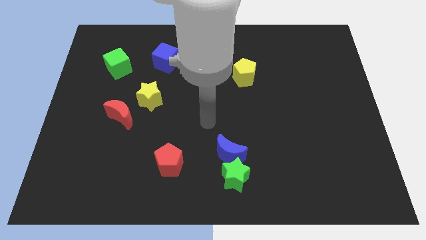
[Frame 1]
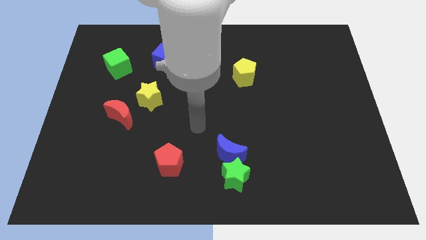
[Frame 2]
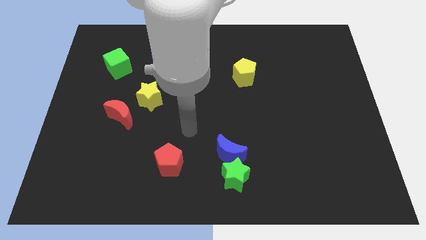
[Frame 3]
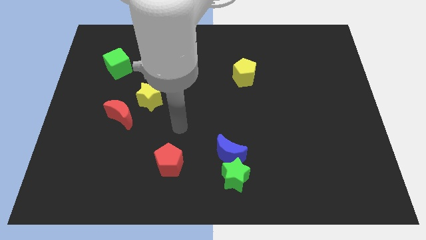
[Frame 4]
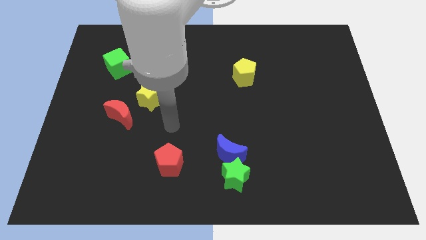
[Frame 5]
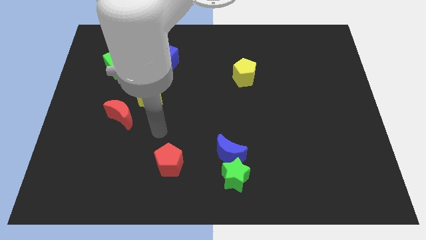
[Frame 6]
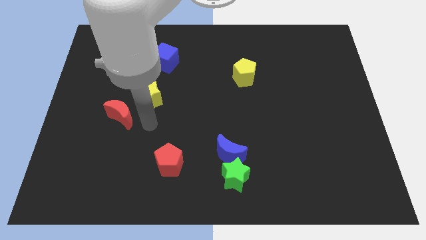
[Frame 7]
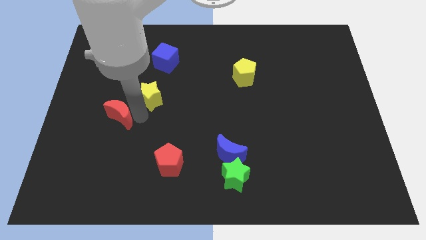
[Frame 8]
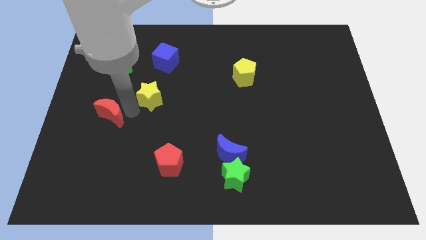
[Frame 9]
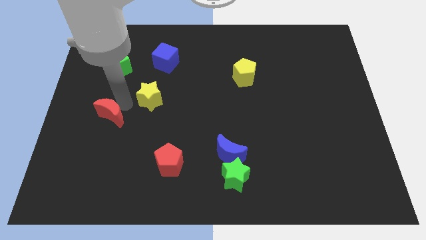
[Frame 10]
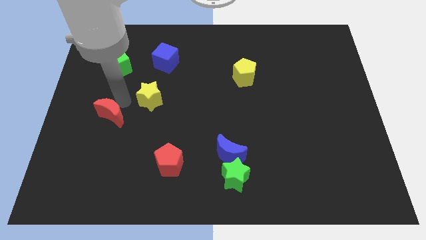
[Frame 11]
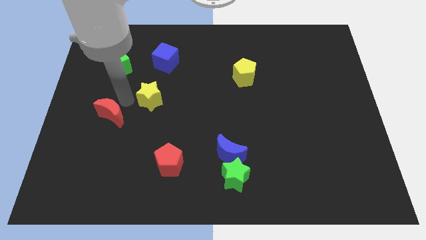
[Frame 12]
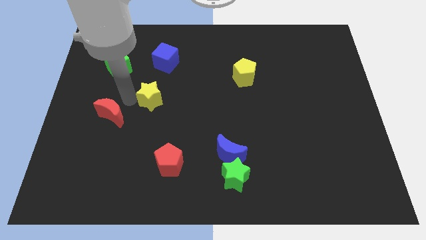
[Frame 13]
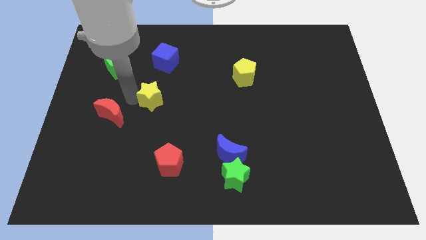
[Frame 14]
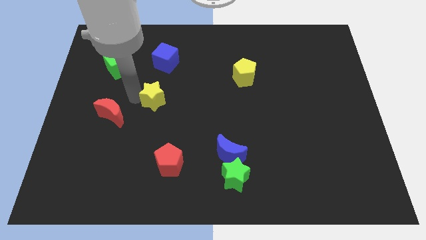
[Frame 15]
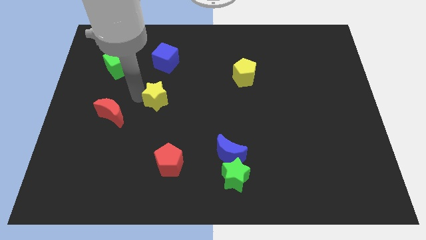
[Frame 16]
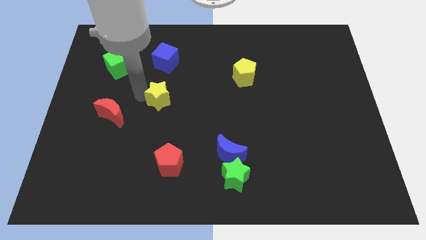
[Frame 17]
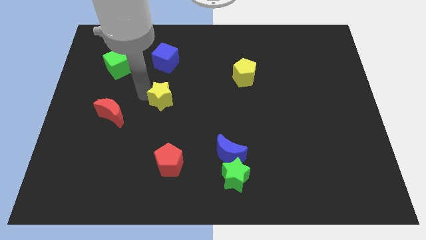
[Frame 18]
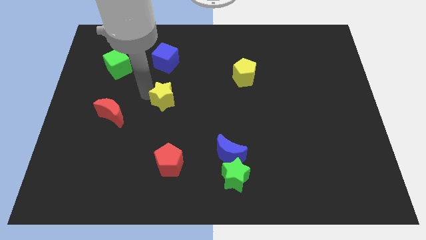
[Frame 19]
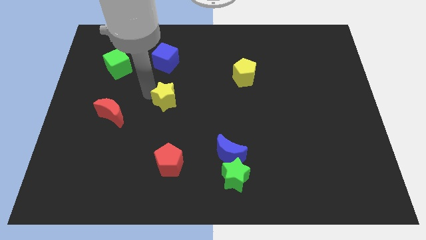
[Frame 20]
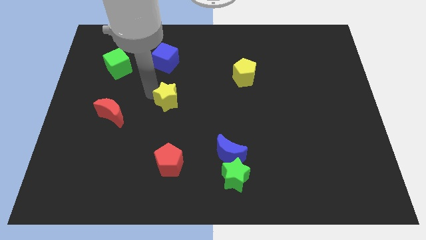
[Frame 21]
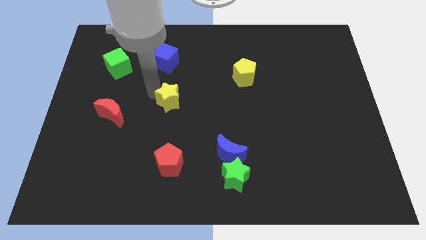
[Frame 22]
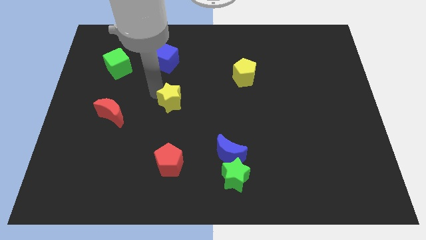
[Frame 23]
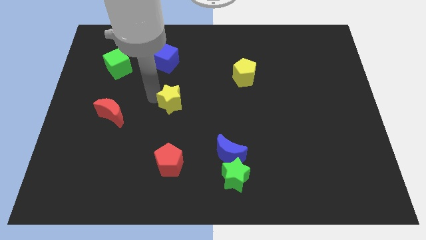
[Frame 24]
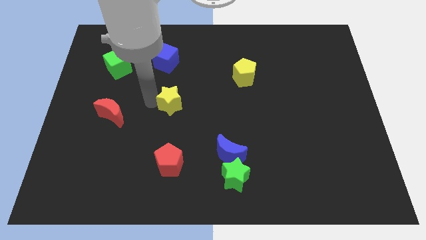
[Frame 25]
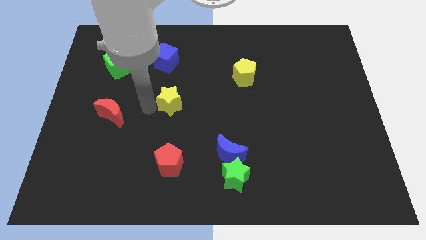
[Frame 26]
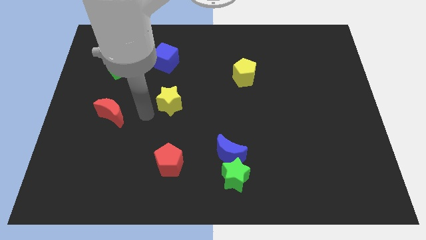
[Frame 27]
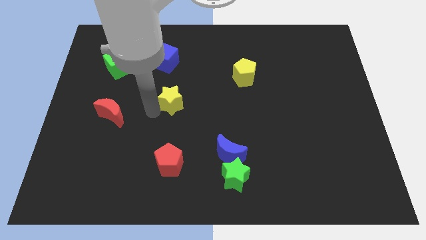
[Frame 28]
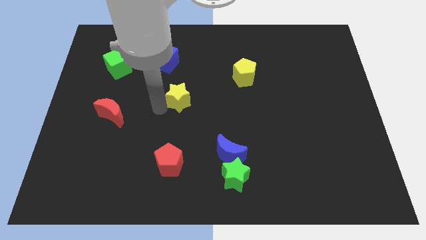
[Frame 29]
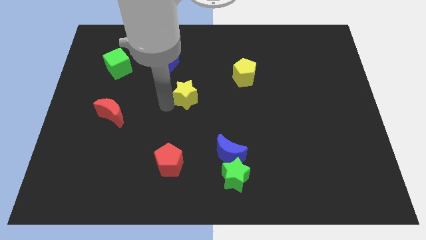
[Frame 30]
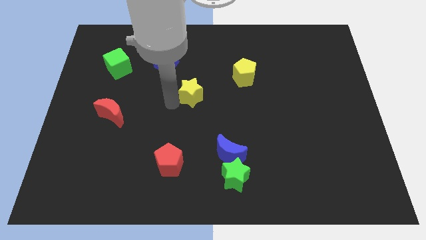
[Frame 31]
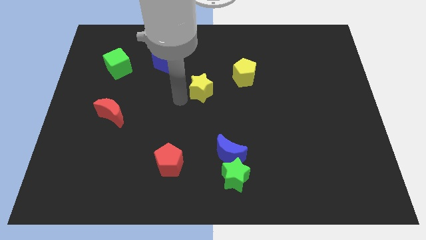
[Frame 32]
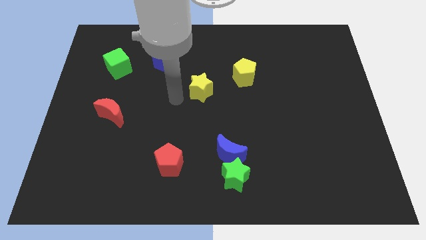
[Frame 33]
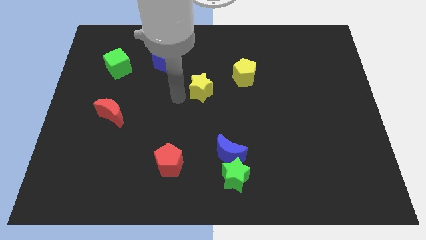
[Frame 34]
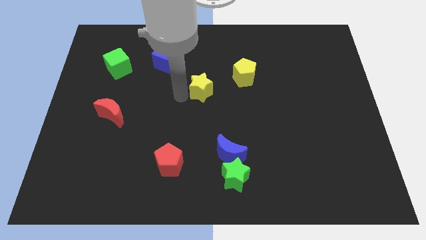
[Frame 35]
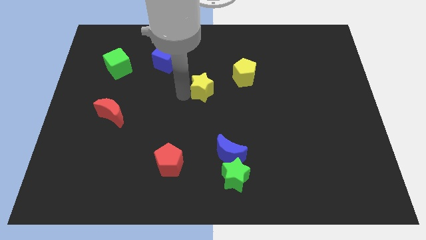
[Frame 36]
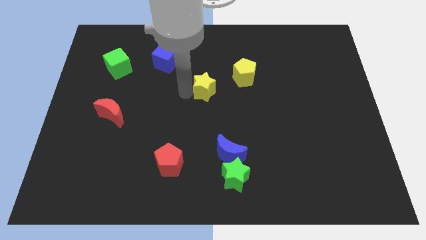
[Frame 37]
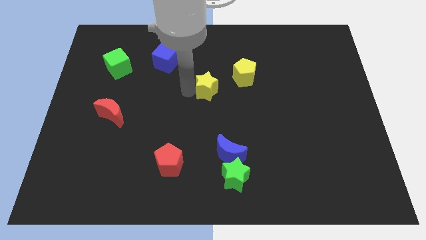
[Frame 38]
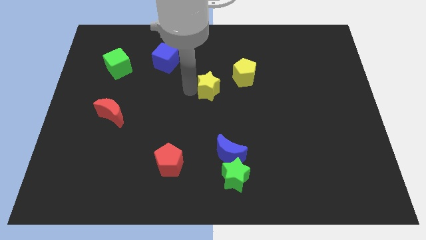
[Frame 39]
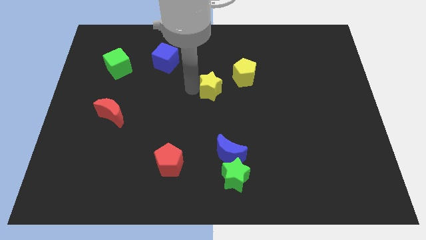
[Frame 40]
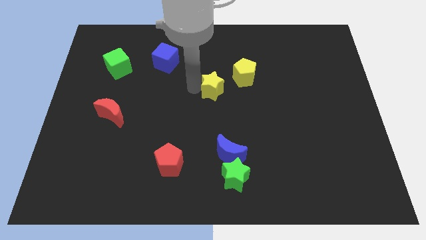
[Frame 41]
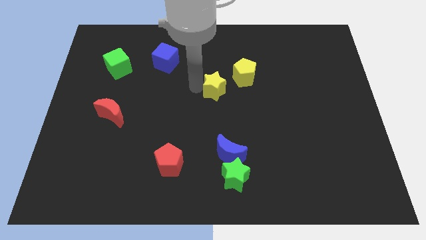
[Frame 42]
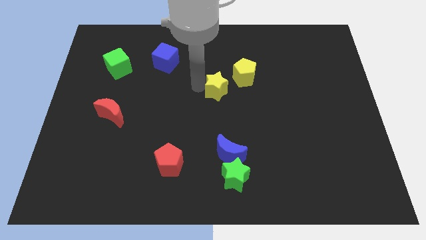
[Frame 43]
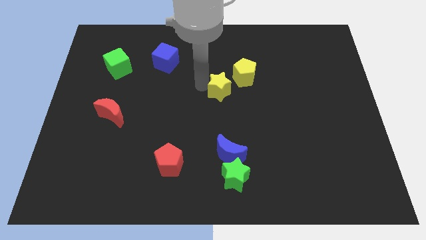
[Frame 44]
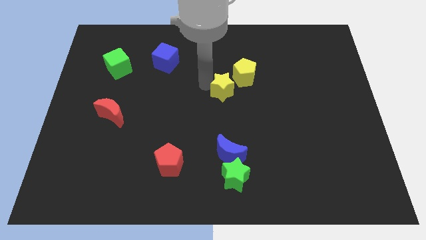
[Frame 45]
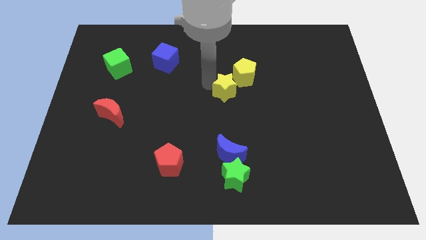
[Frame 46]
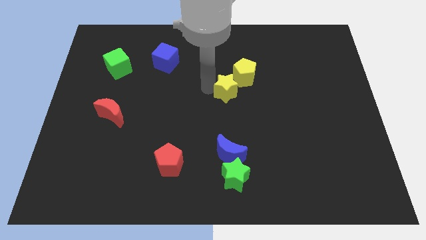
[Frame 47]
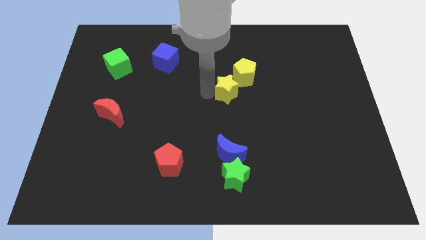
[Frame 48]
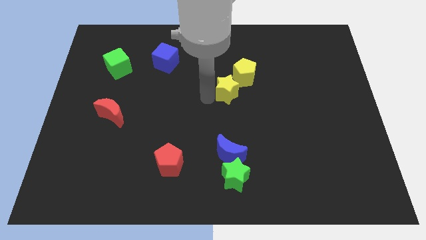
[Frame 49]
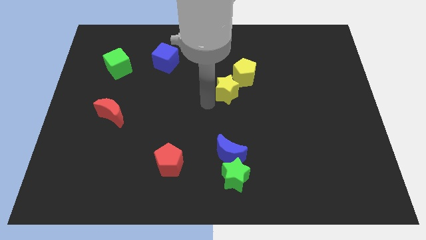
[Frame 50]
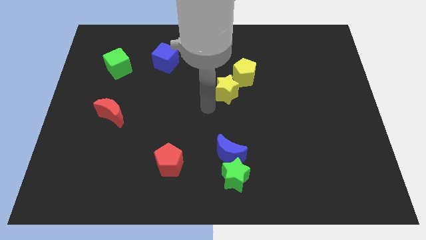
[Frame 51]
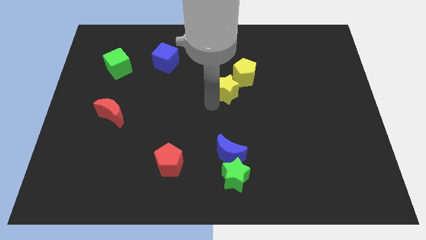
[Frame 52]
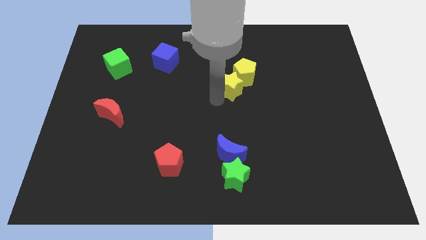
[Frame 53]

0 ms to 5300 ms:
push the yellow star to the yellow pentagon

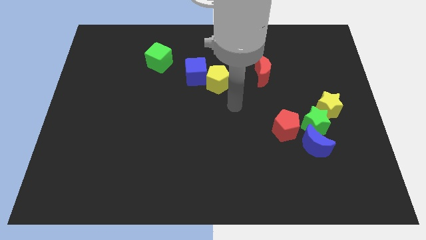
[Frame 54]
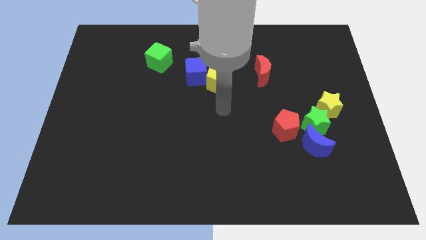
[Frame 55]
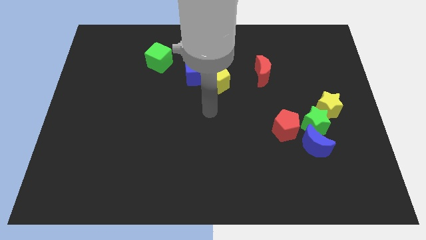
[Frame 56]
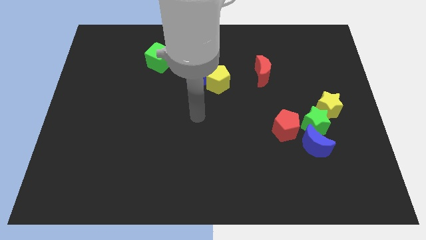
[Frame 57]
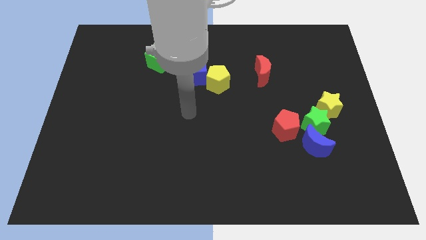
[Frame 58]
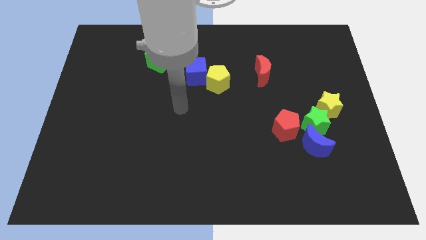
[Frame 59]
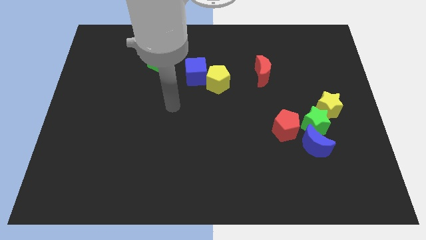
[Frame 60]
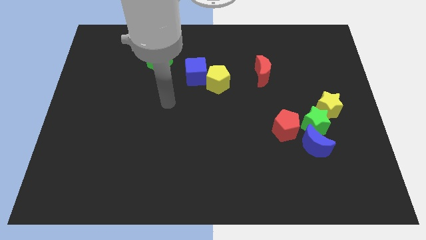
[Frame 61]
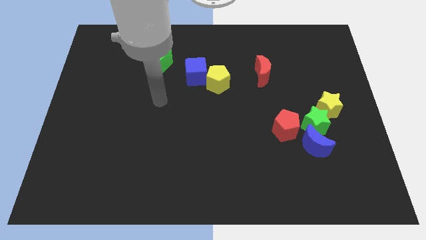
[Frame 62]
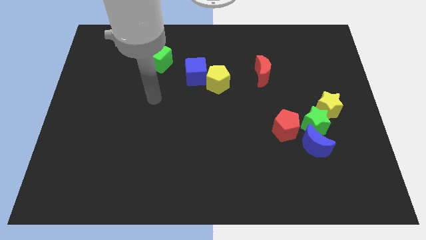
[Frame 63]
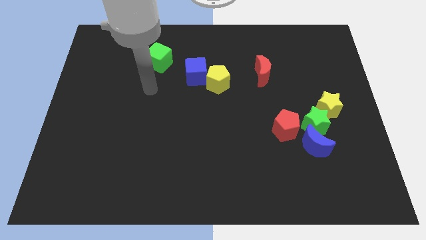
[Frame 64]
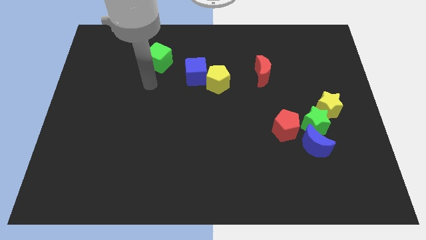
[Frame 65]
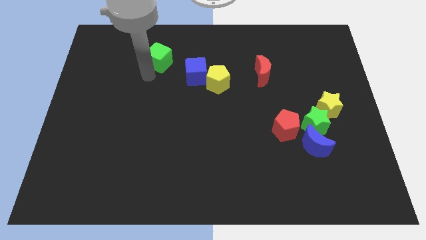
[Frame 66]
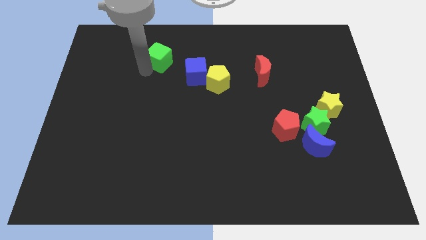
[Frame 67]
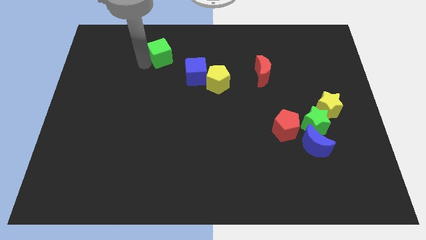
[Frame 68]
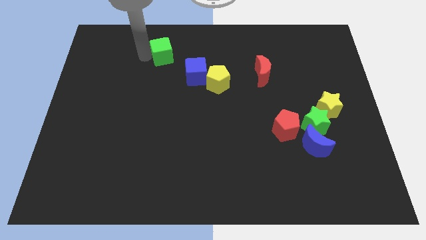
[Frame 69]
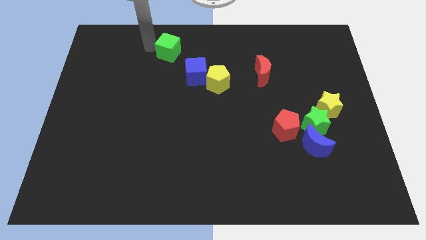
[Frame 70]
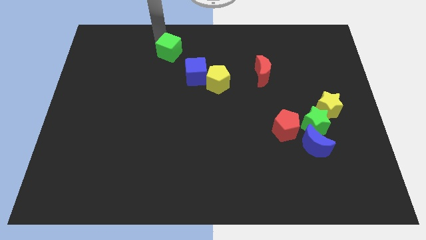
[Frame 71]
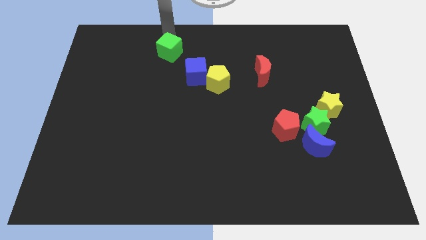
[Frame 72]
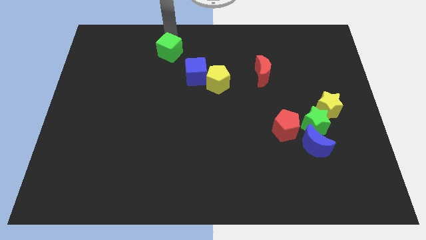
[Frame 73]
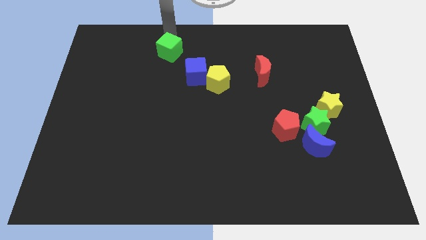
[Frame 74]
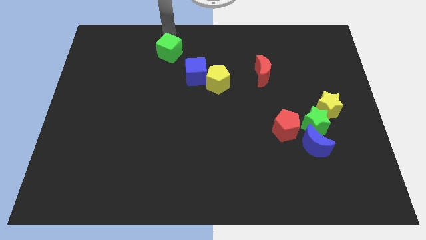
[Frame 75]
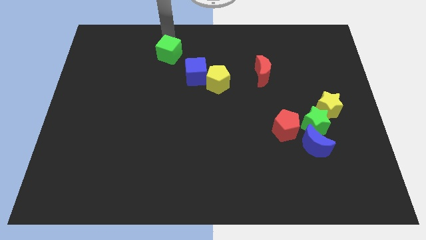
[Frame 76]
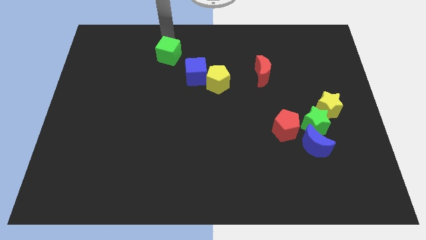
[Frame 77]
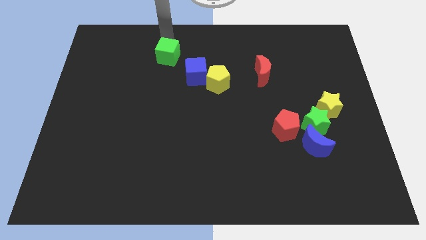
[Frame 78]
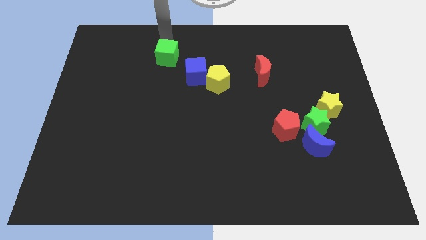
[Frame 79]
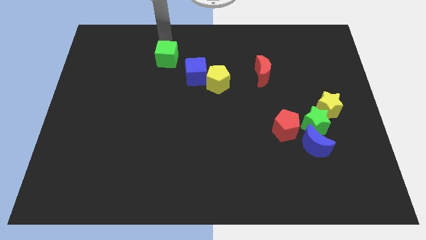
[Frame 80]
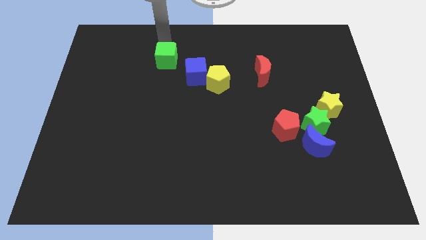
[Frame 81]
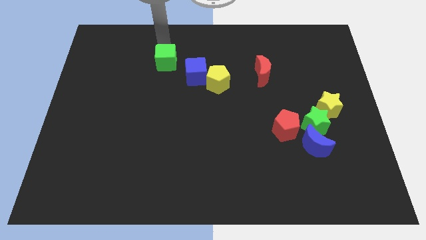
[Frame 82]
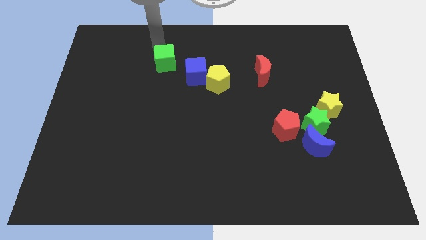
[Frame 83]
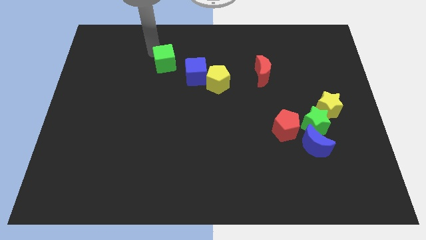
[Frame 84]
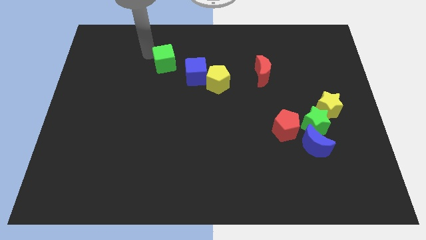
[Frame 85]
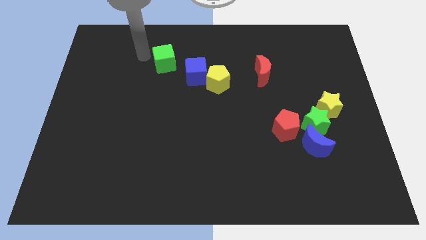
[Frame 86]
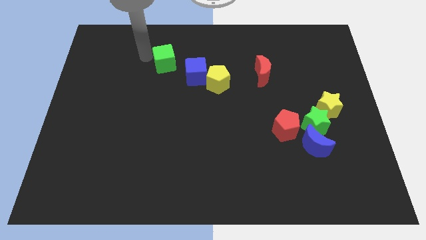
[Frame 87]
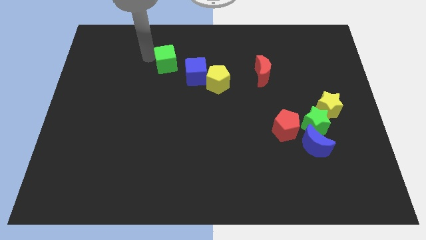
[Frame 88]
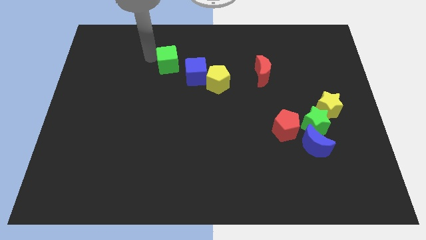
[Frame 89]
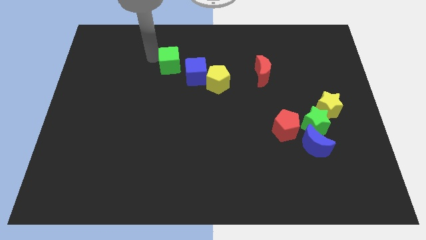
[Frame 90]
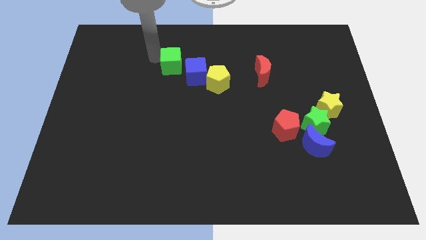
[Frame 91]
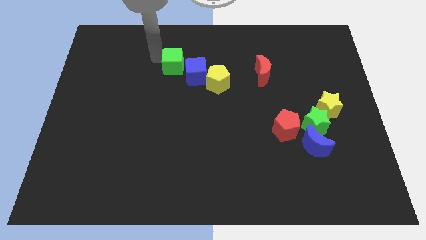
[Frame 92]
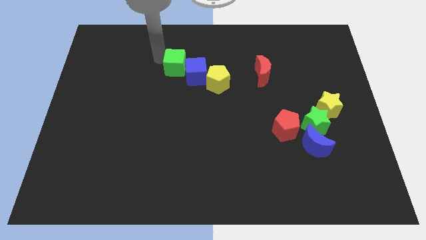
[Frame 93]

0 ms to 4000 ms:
move the green cube close to the blue cube
